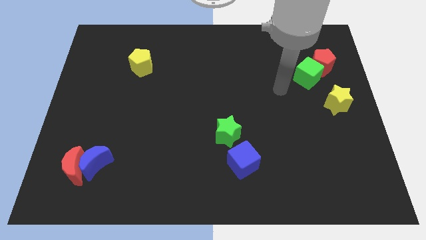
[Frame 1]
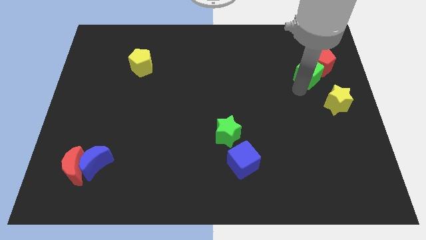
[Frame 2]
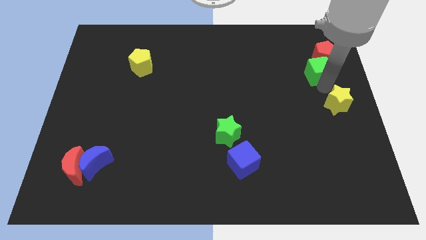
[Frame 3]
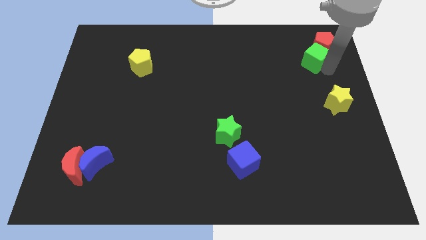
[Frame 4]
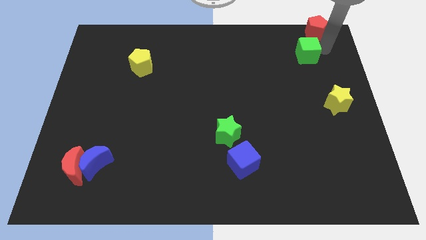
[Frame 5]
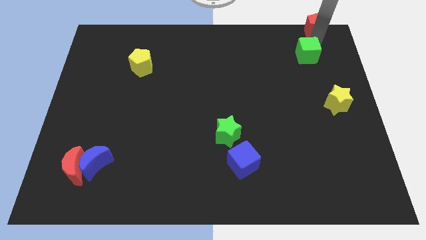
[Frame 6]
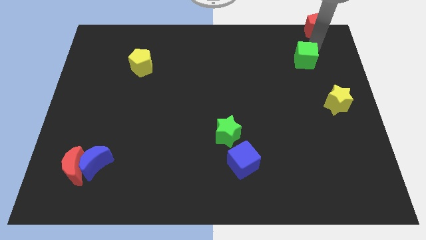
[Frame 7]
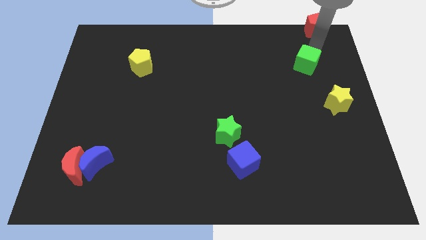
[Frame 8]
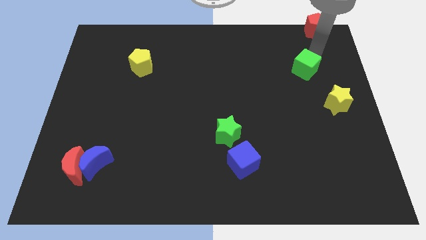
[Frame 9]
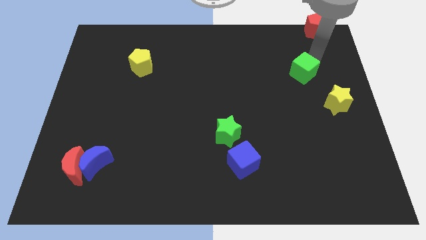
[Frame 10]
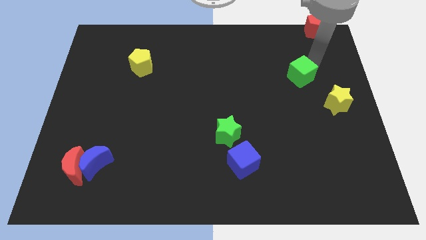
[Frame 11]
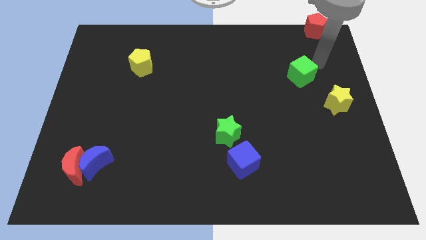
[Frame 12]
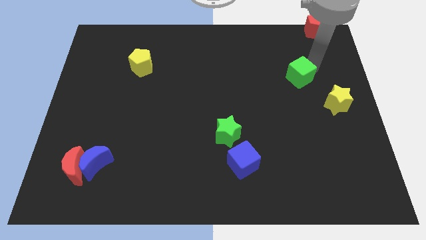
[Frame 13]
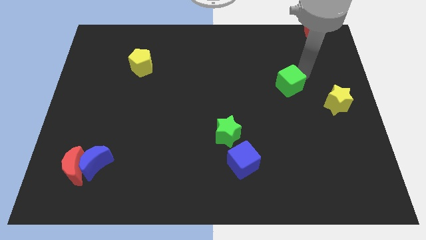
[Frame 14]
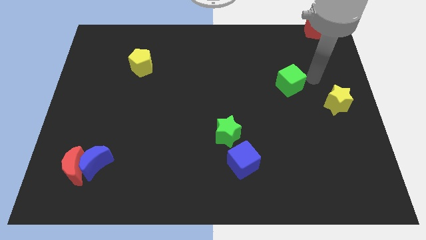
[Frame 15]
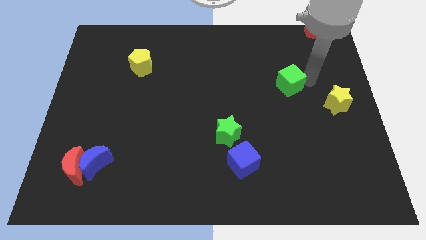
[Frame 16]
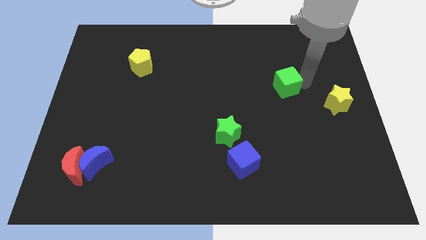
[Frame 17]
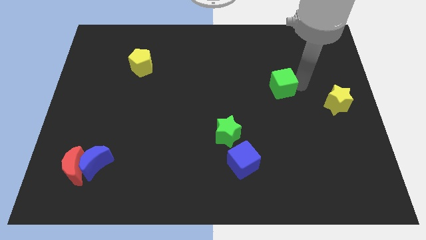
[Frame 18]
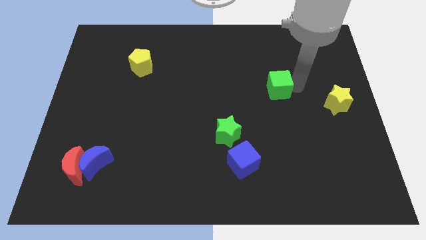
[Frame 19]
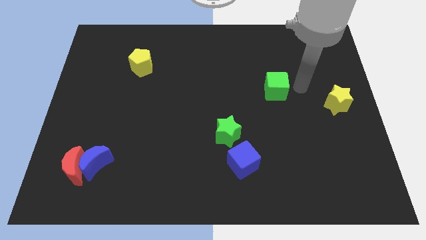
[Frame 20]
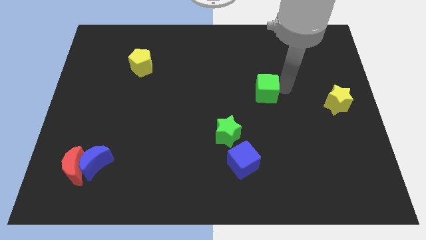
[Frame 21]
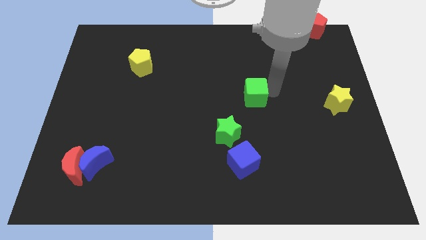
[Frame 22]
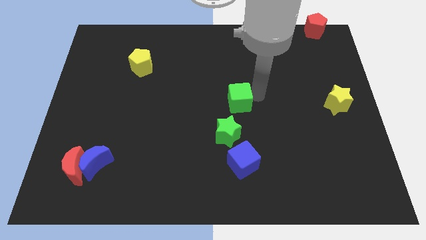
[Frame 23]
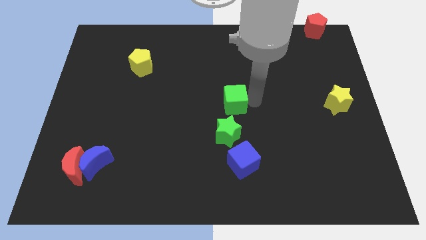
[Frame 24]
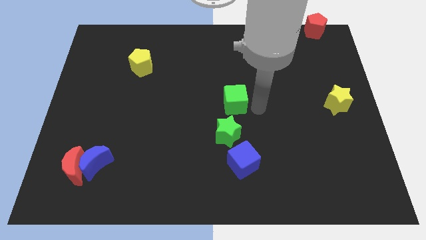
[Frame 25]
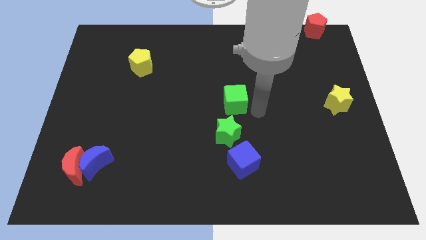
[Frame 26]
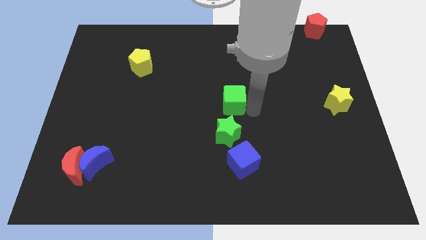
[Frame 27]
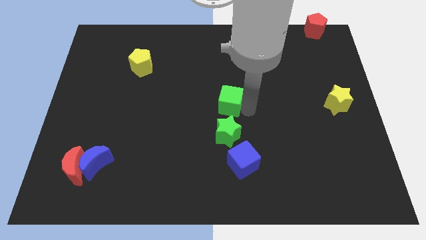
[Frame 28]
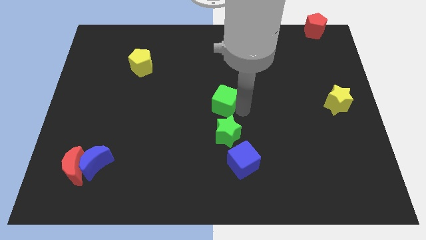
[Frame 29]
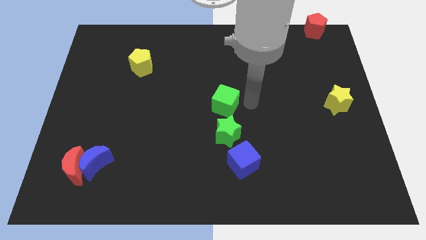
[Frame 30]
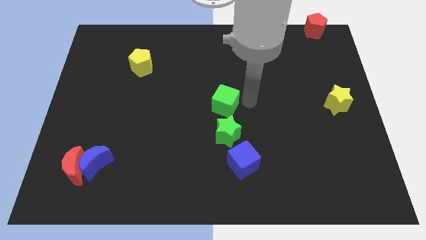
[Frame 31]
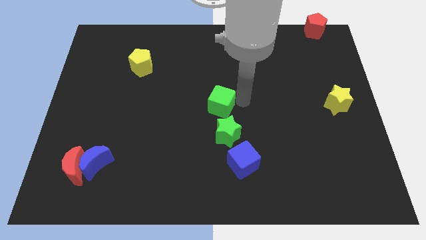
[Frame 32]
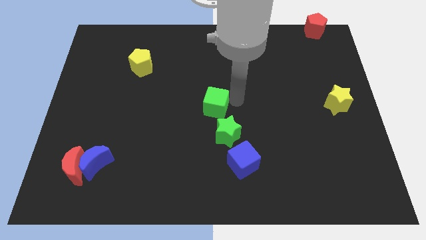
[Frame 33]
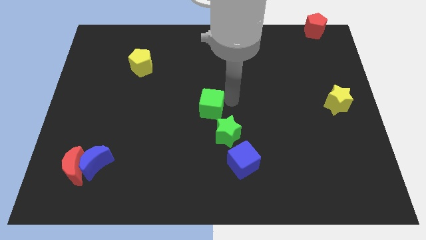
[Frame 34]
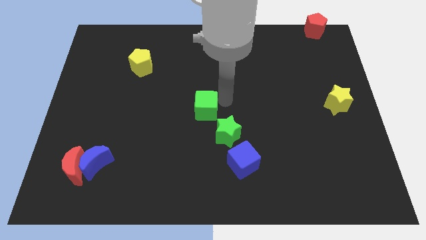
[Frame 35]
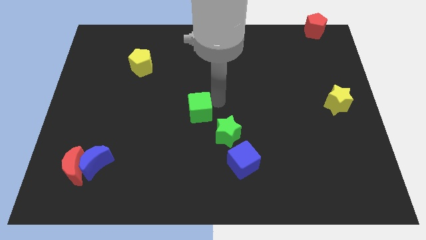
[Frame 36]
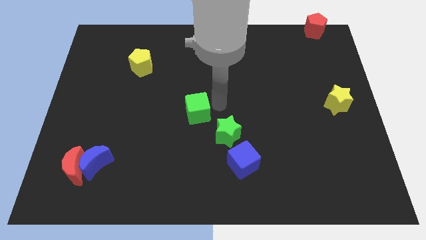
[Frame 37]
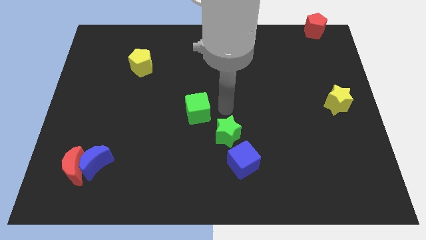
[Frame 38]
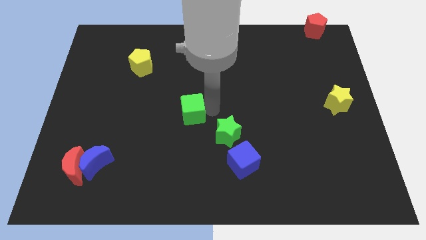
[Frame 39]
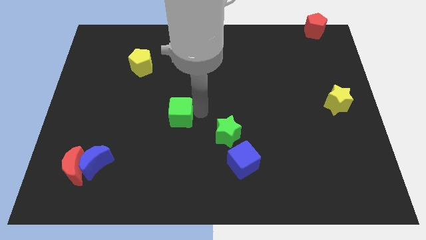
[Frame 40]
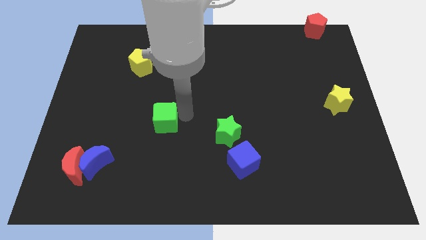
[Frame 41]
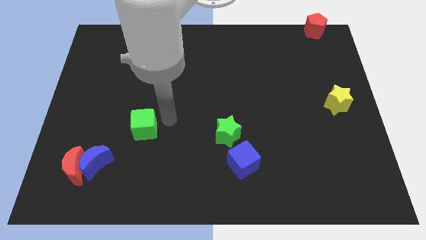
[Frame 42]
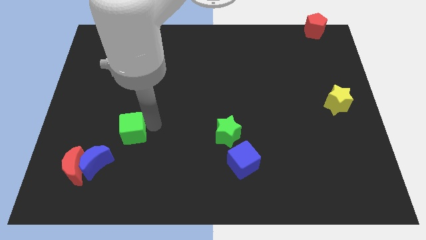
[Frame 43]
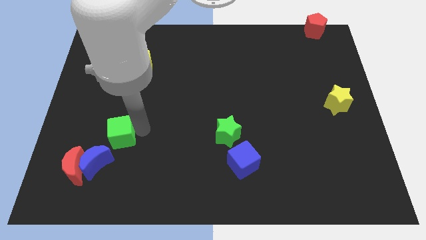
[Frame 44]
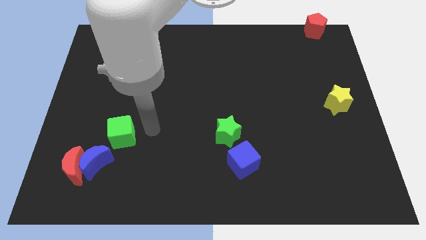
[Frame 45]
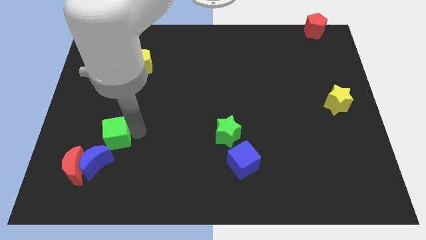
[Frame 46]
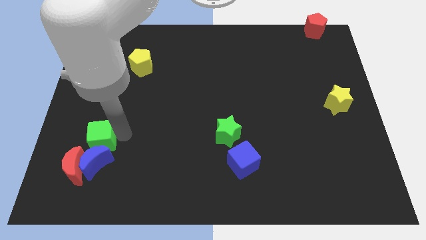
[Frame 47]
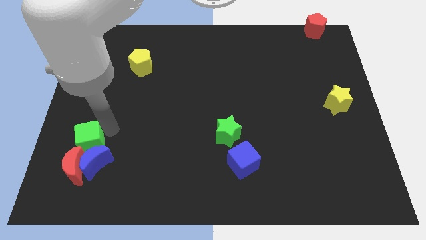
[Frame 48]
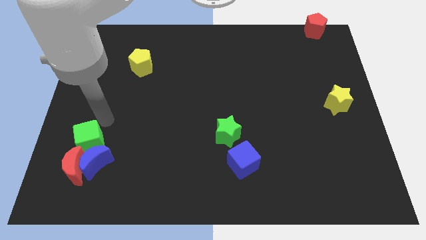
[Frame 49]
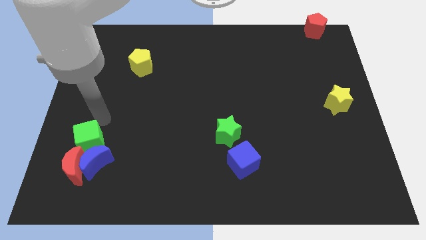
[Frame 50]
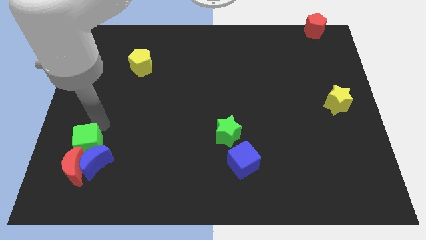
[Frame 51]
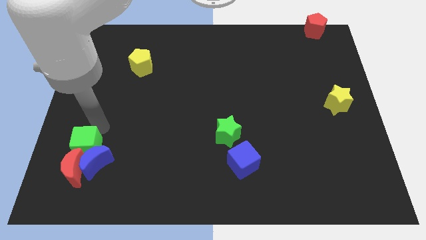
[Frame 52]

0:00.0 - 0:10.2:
slide the green cube towards the red moon

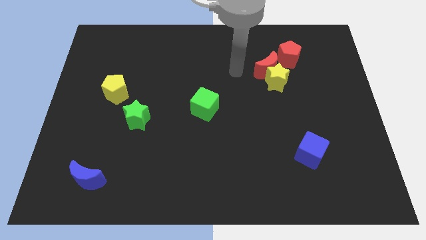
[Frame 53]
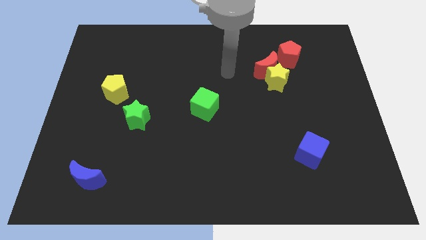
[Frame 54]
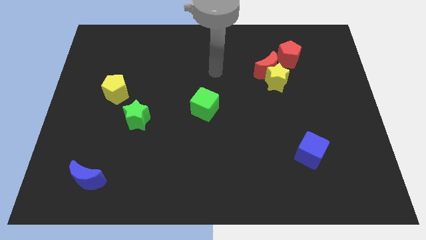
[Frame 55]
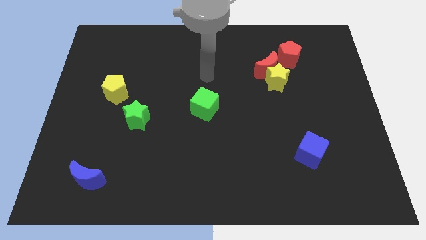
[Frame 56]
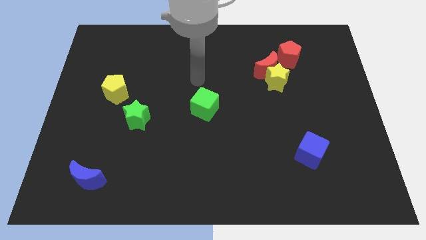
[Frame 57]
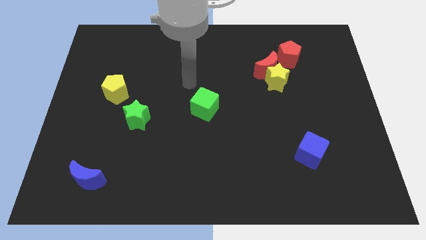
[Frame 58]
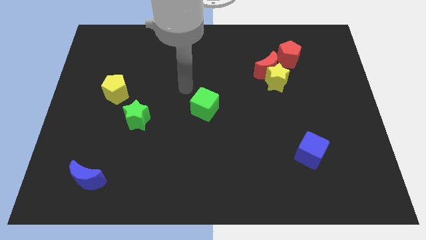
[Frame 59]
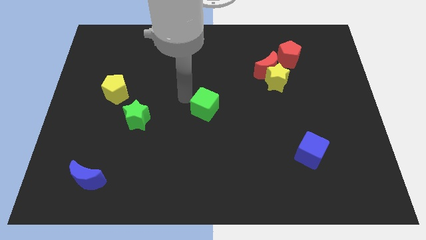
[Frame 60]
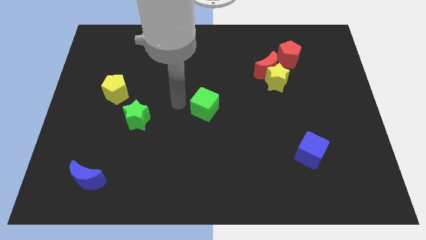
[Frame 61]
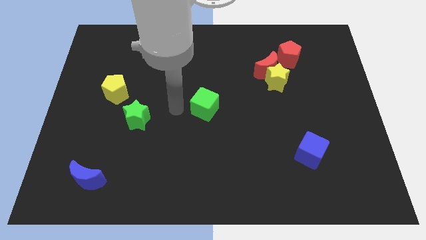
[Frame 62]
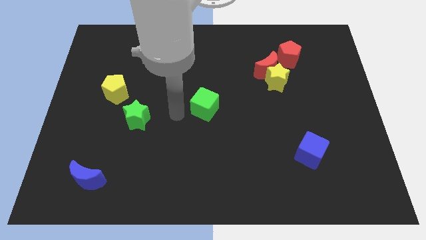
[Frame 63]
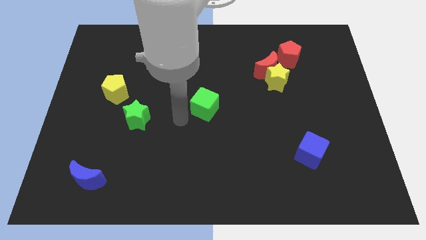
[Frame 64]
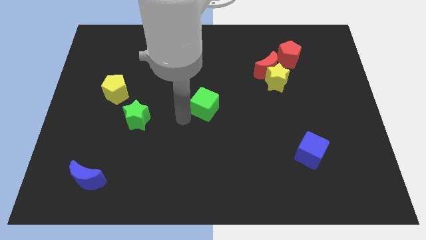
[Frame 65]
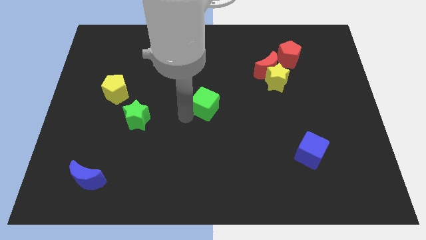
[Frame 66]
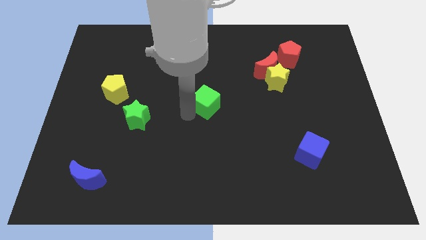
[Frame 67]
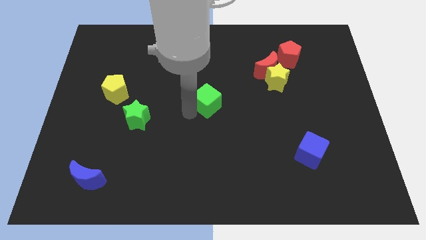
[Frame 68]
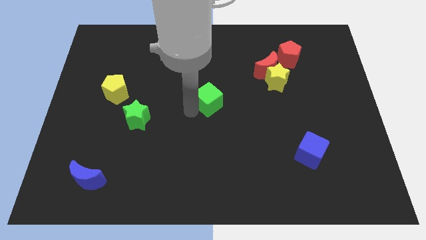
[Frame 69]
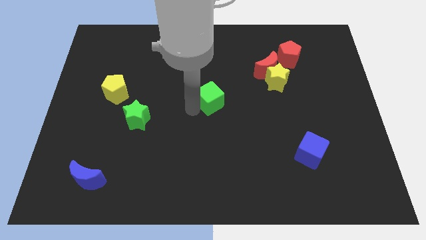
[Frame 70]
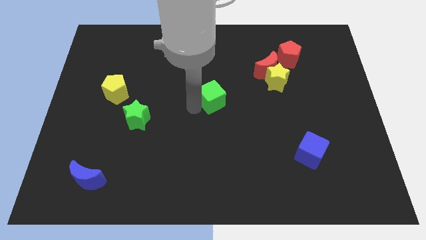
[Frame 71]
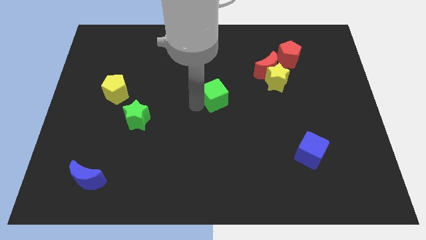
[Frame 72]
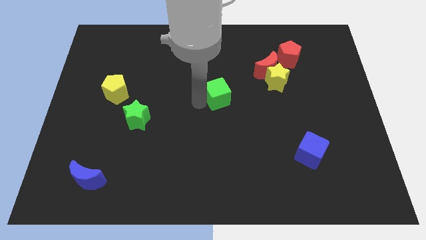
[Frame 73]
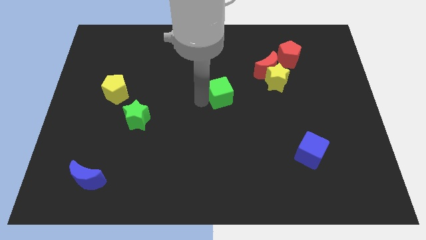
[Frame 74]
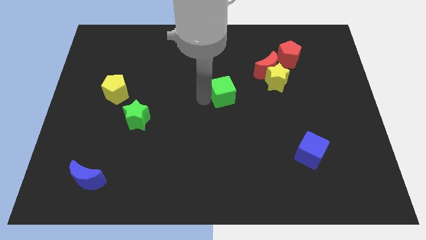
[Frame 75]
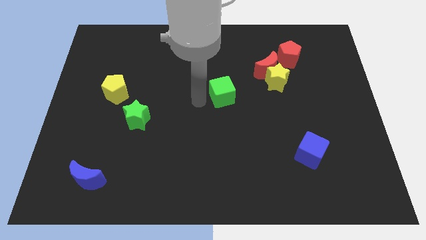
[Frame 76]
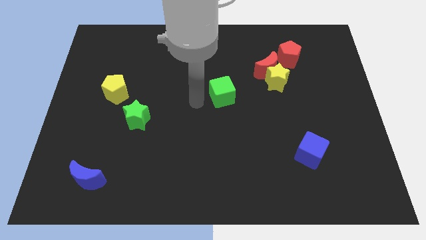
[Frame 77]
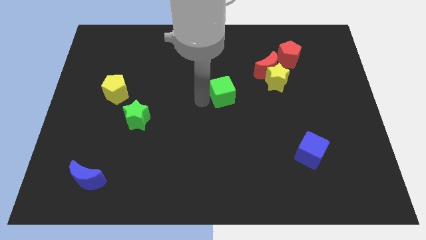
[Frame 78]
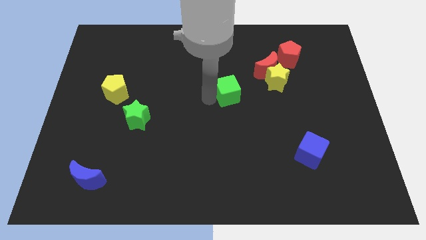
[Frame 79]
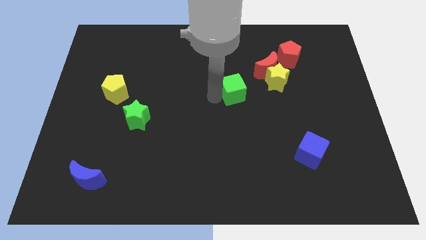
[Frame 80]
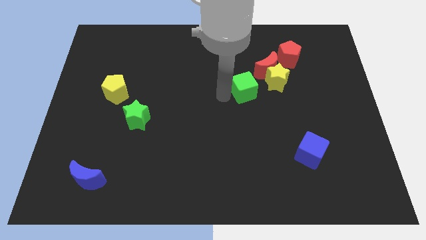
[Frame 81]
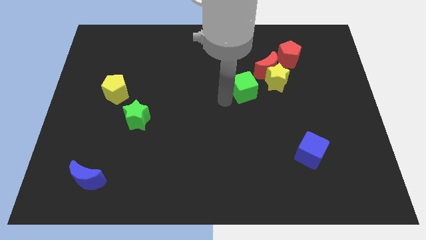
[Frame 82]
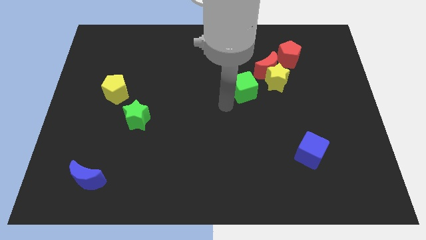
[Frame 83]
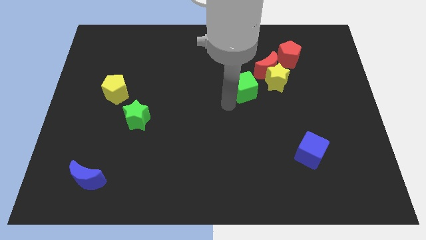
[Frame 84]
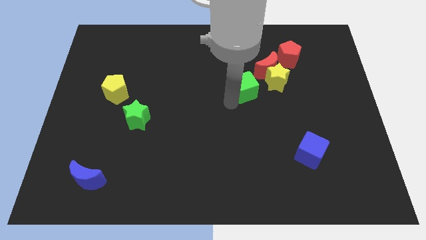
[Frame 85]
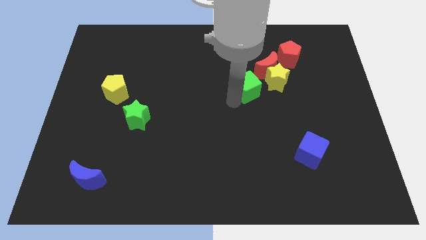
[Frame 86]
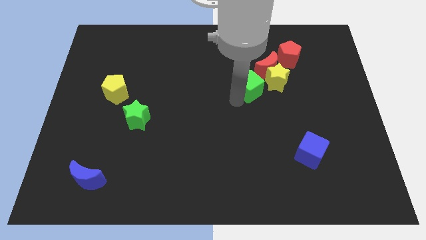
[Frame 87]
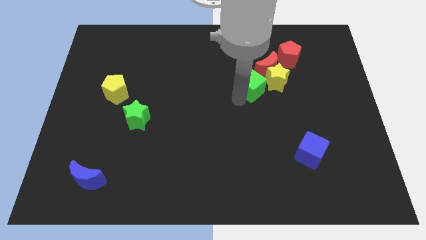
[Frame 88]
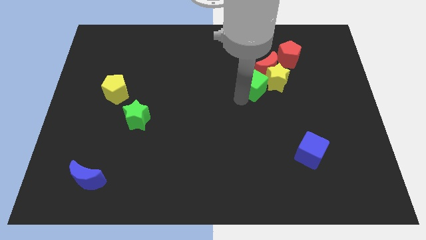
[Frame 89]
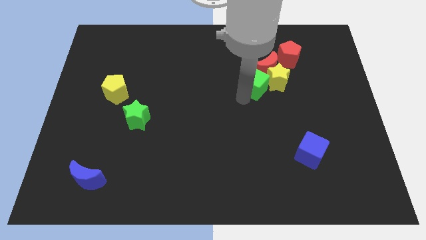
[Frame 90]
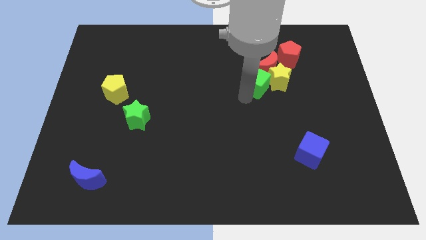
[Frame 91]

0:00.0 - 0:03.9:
push the green cube next to the red moon
